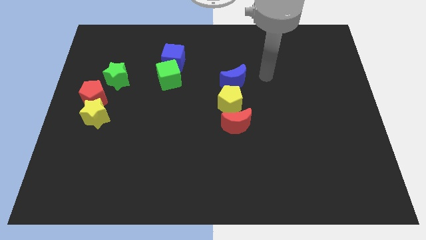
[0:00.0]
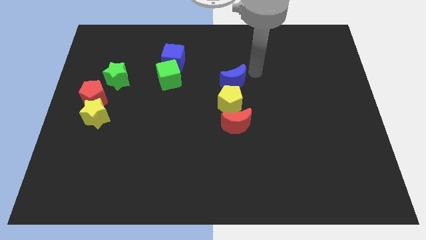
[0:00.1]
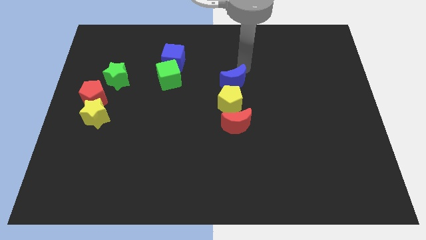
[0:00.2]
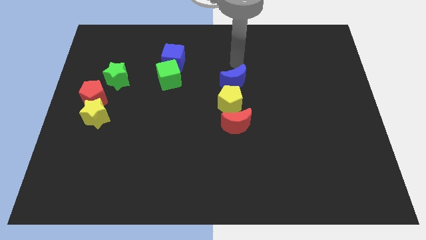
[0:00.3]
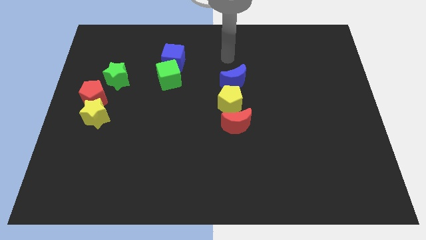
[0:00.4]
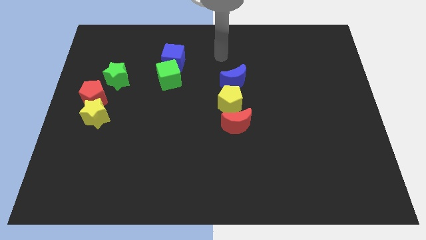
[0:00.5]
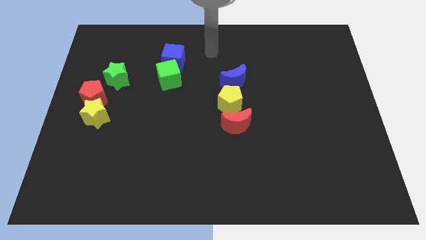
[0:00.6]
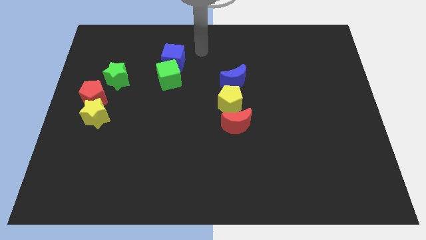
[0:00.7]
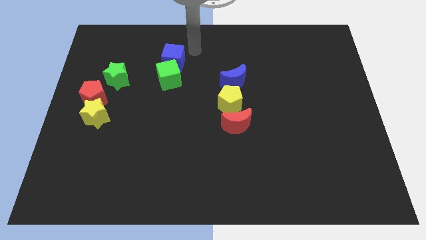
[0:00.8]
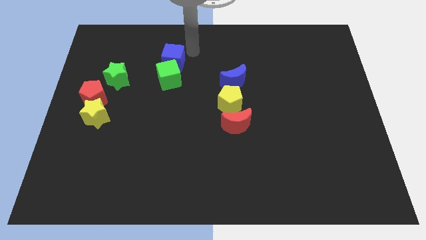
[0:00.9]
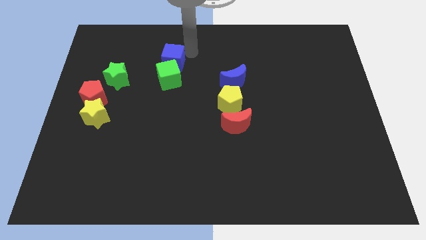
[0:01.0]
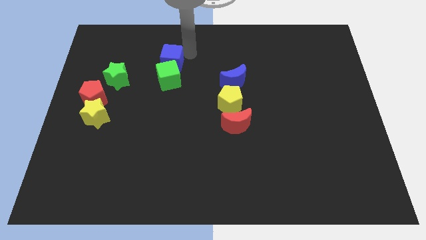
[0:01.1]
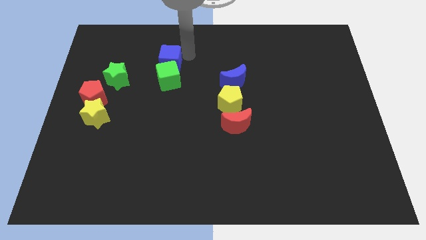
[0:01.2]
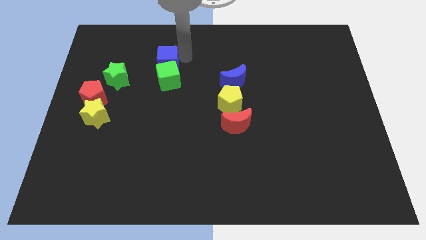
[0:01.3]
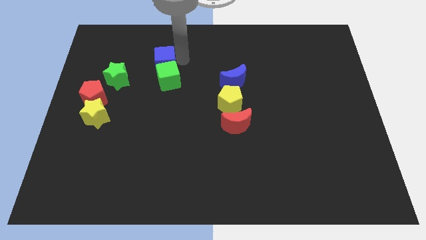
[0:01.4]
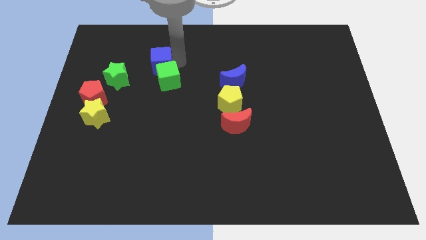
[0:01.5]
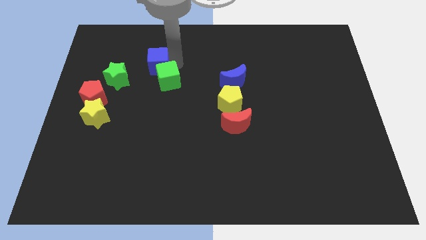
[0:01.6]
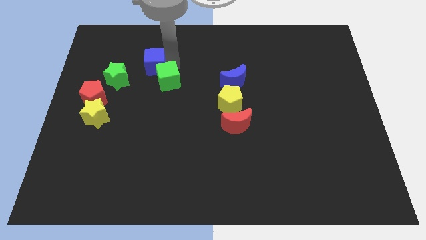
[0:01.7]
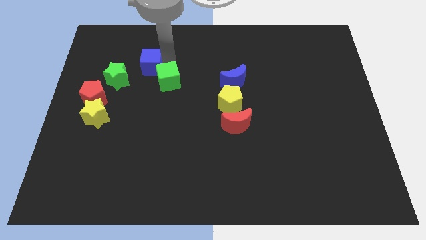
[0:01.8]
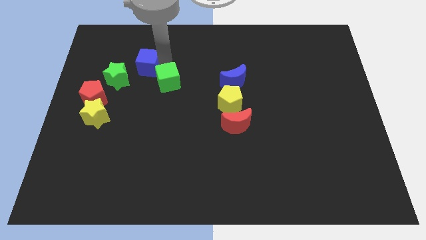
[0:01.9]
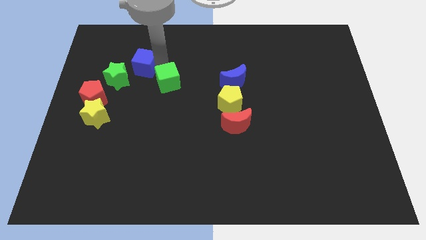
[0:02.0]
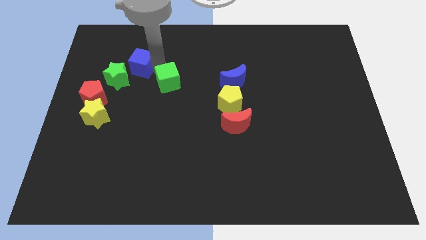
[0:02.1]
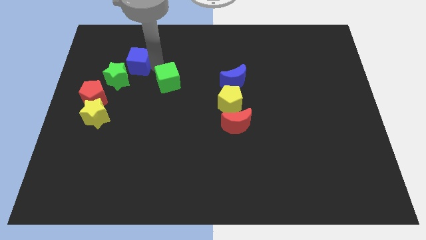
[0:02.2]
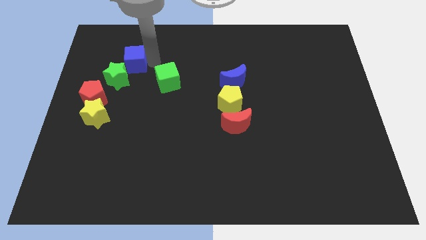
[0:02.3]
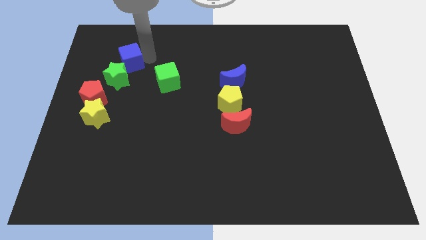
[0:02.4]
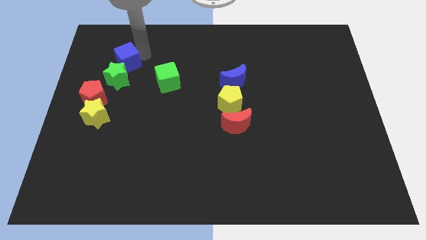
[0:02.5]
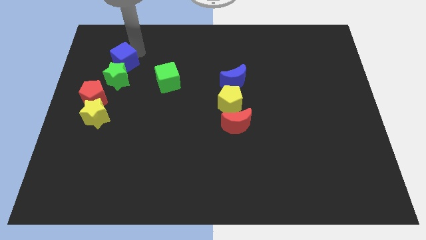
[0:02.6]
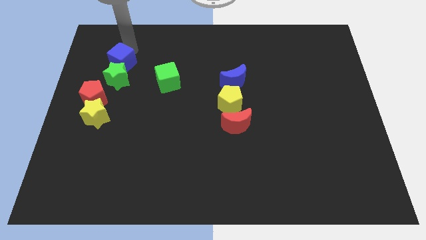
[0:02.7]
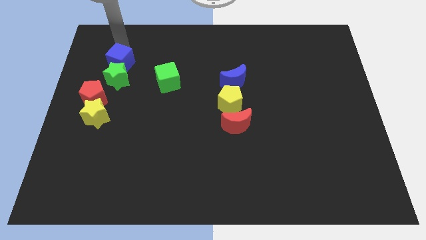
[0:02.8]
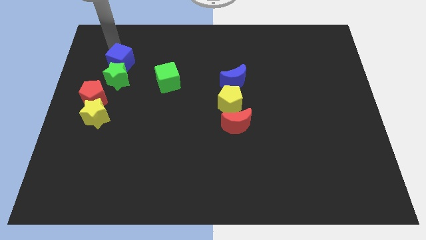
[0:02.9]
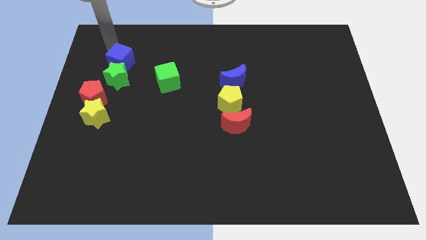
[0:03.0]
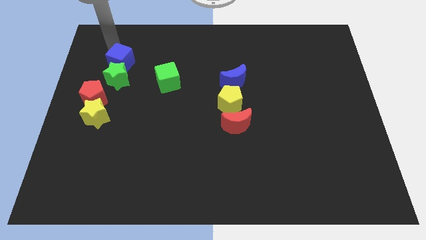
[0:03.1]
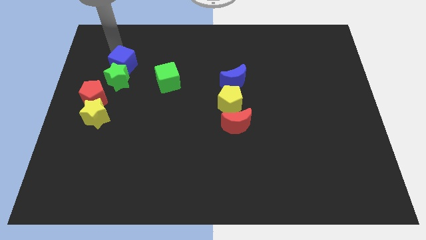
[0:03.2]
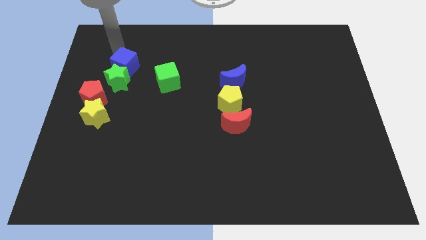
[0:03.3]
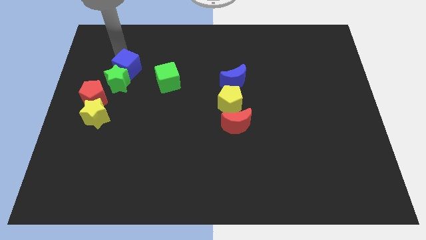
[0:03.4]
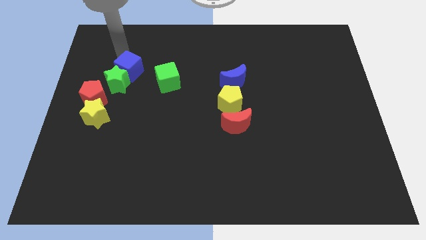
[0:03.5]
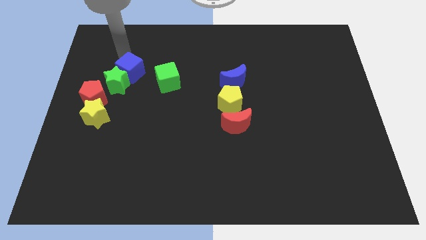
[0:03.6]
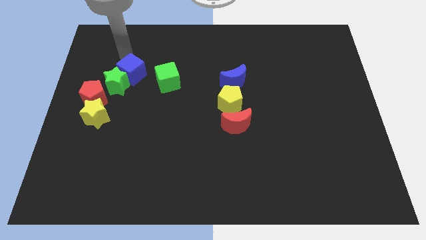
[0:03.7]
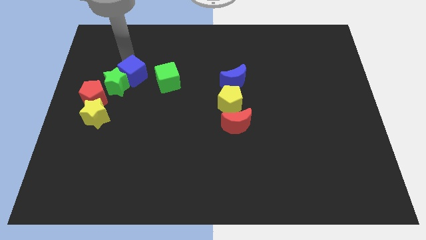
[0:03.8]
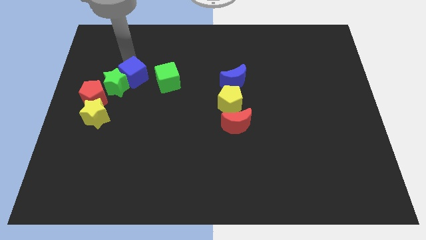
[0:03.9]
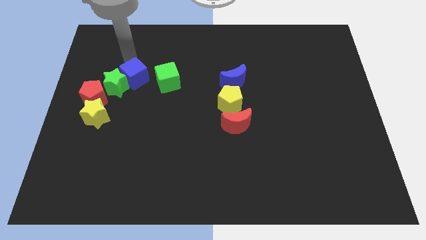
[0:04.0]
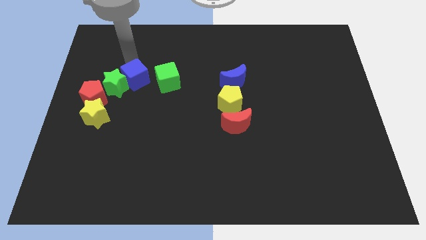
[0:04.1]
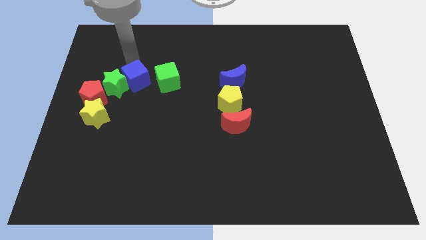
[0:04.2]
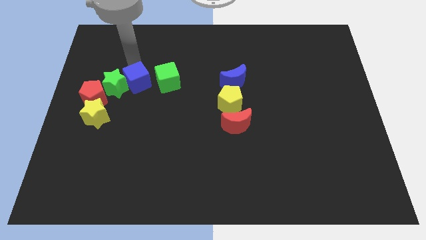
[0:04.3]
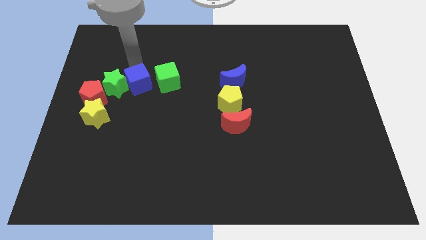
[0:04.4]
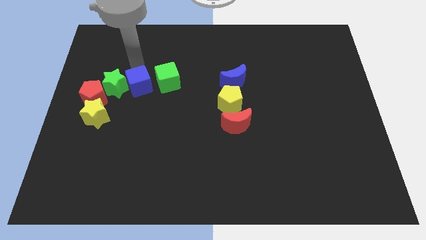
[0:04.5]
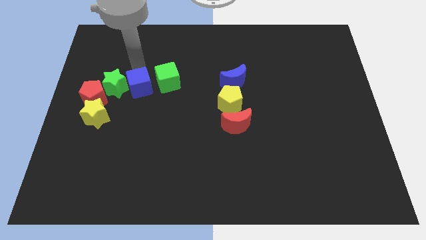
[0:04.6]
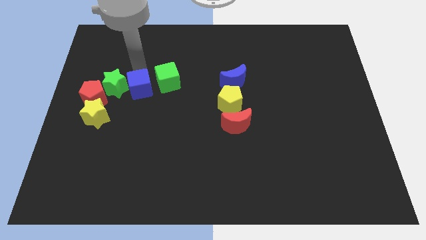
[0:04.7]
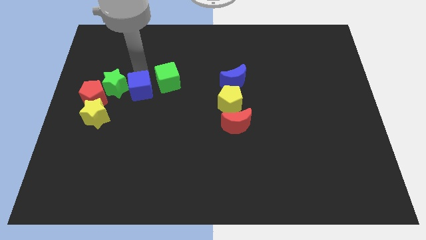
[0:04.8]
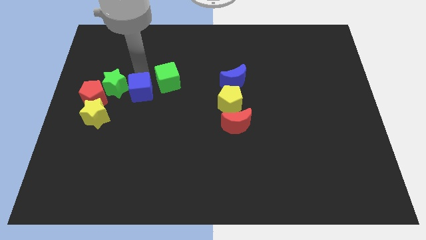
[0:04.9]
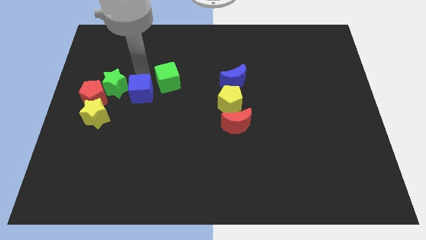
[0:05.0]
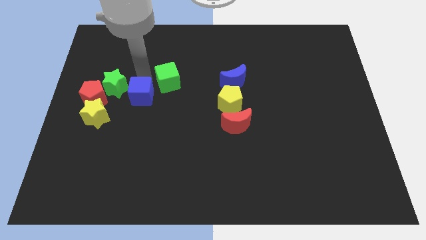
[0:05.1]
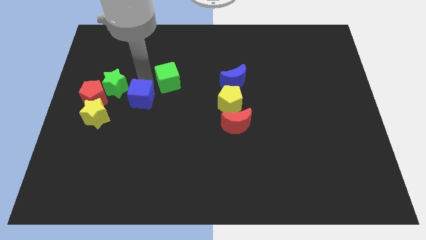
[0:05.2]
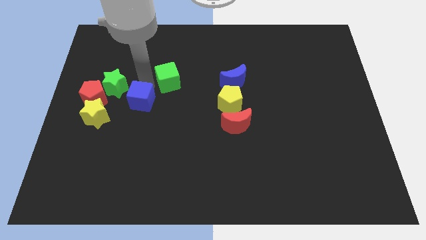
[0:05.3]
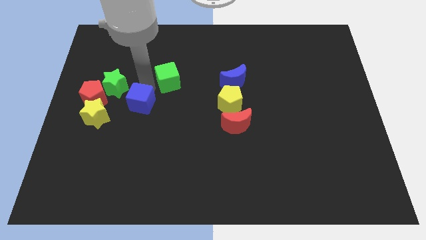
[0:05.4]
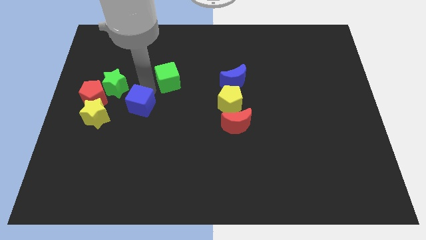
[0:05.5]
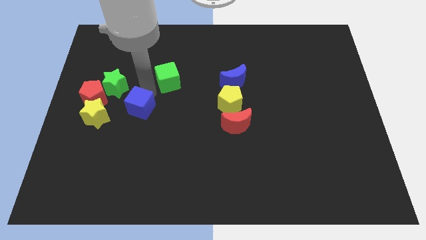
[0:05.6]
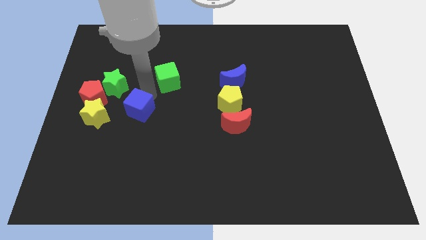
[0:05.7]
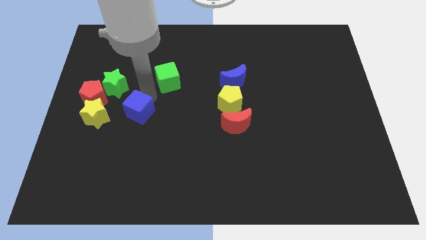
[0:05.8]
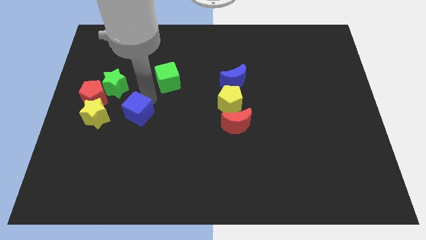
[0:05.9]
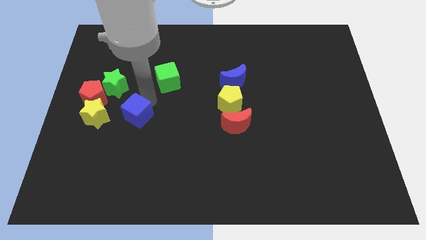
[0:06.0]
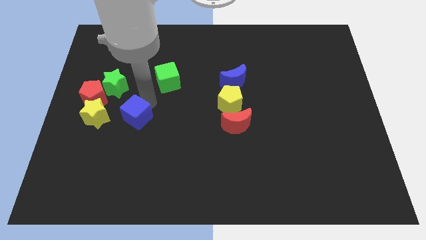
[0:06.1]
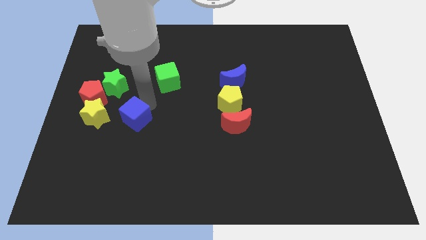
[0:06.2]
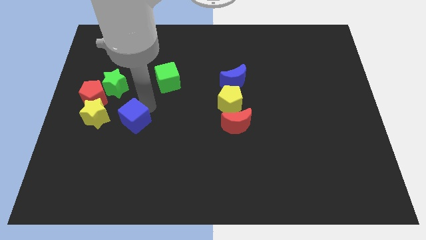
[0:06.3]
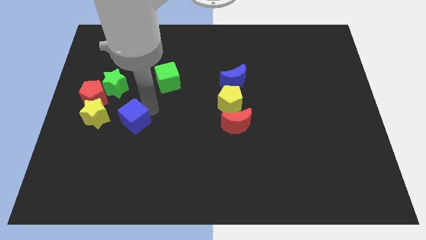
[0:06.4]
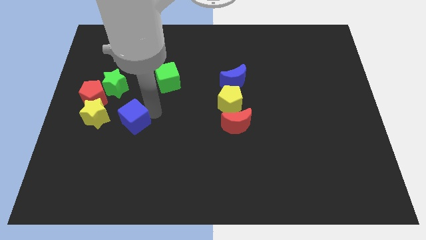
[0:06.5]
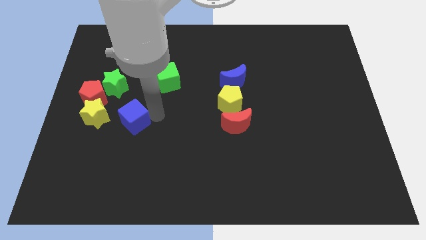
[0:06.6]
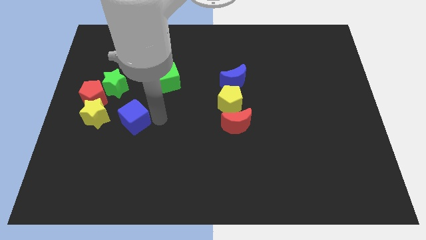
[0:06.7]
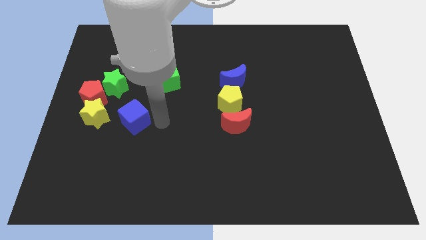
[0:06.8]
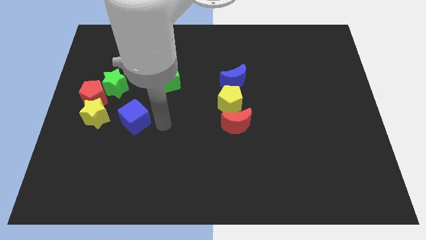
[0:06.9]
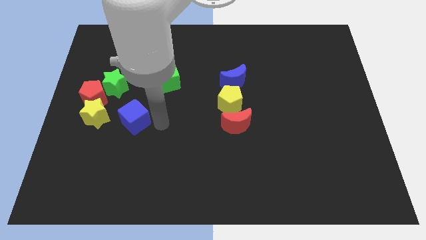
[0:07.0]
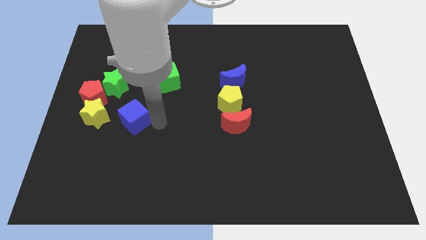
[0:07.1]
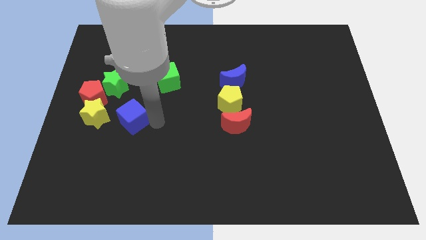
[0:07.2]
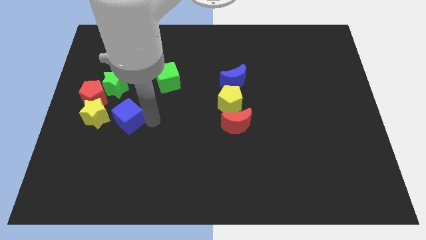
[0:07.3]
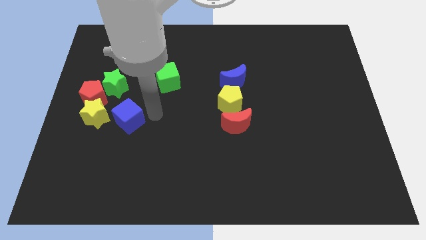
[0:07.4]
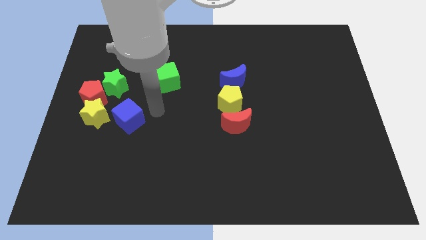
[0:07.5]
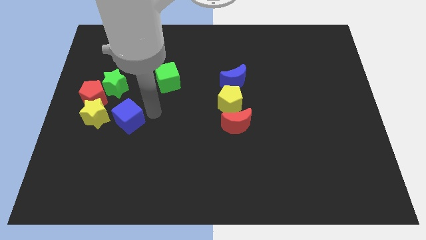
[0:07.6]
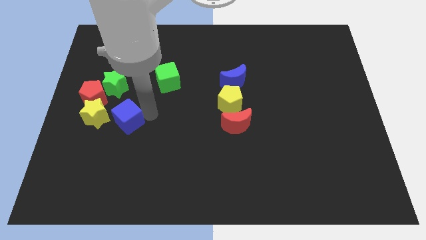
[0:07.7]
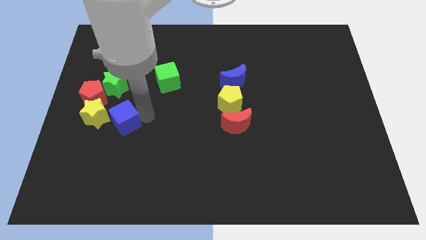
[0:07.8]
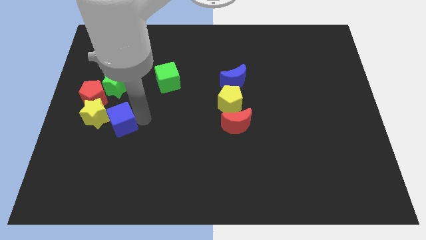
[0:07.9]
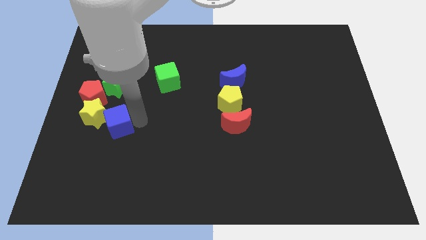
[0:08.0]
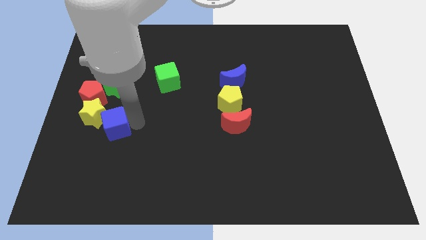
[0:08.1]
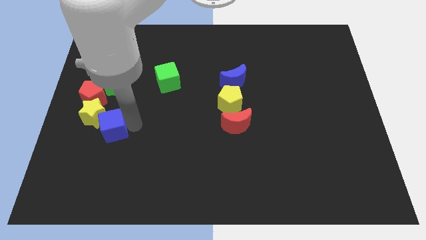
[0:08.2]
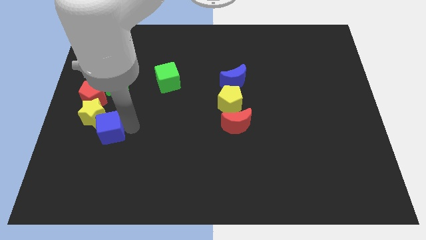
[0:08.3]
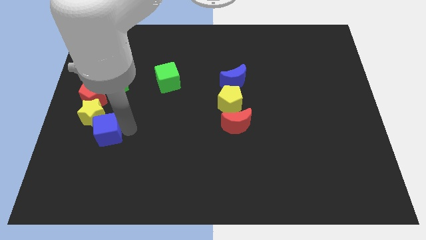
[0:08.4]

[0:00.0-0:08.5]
push the blue cube to the bottom of the red pentagon
